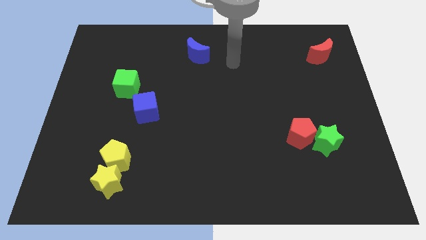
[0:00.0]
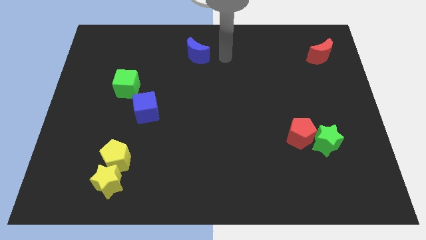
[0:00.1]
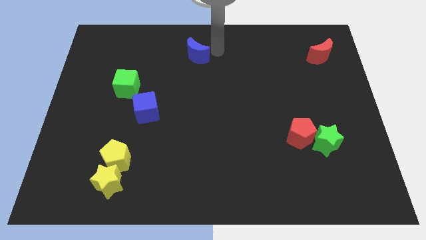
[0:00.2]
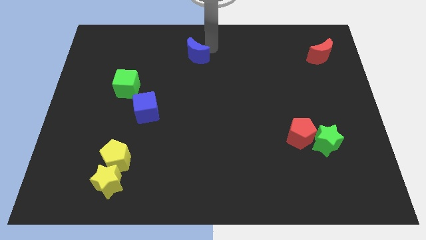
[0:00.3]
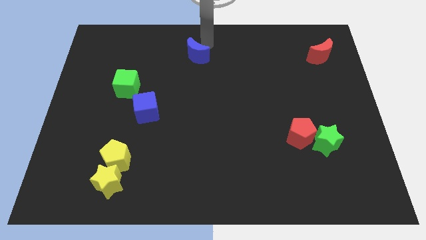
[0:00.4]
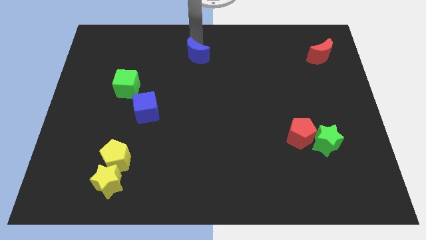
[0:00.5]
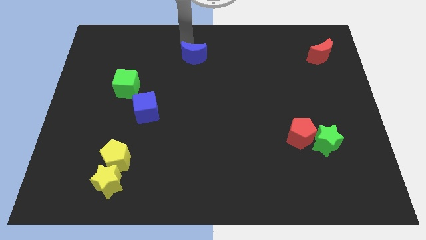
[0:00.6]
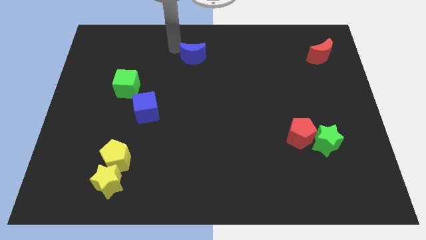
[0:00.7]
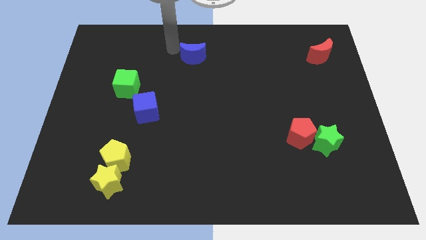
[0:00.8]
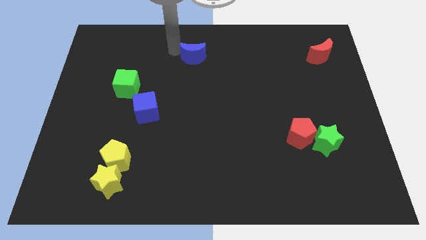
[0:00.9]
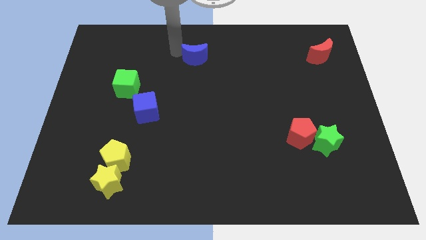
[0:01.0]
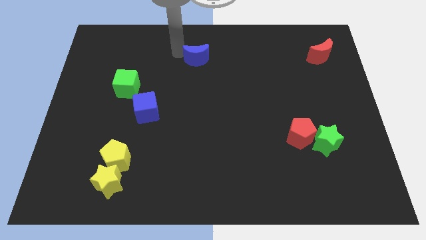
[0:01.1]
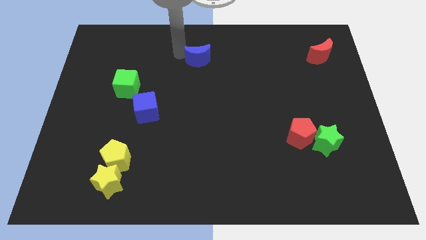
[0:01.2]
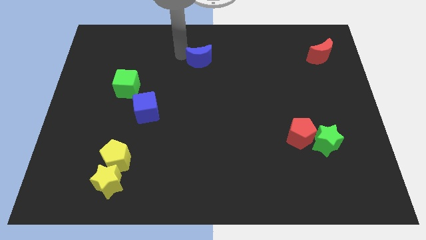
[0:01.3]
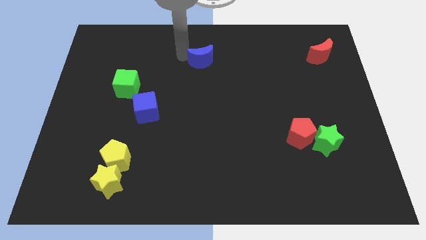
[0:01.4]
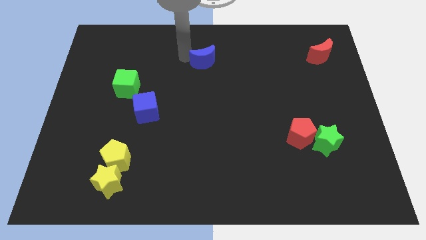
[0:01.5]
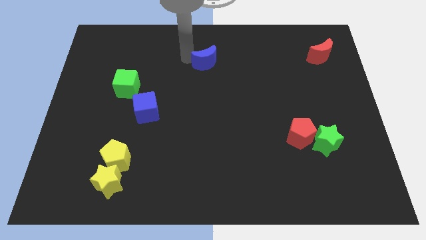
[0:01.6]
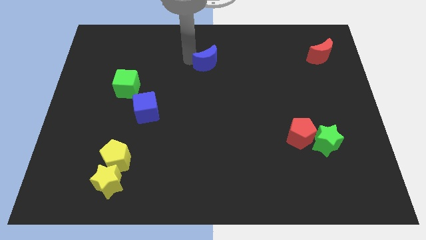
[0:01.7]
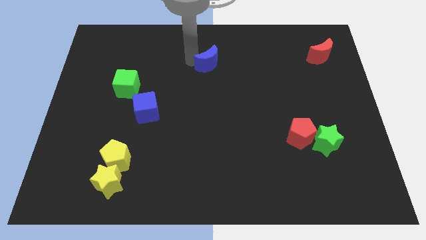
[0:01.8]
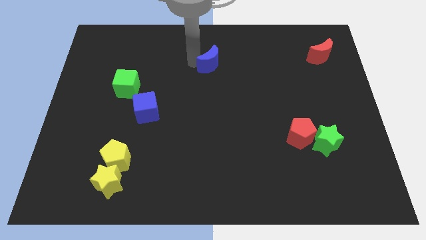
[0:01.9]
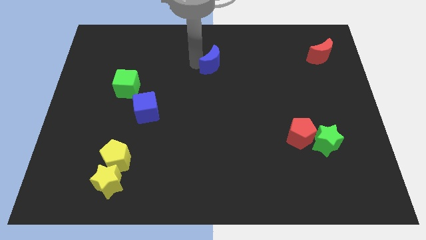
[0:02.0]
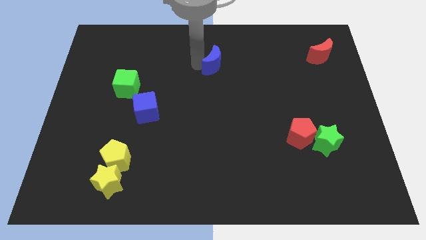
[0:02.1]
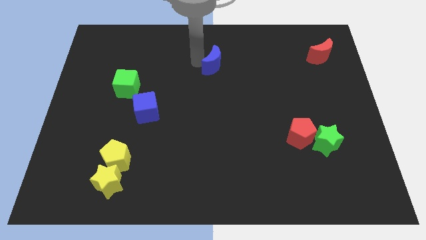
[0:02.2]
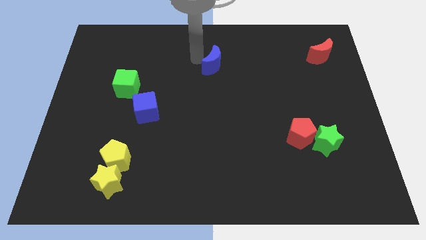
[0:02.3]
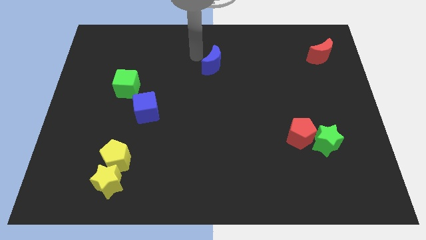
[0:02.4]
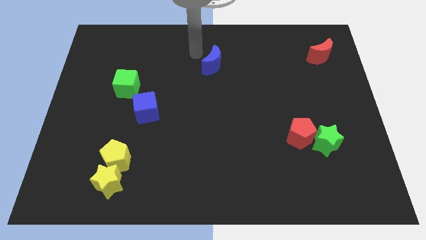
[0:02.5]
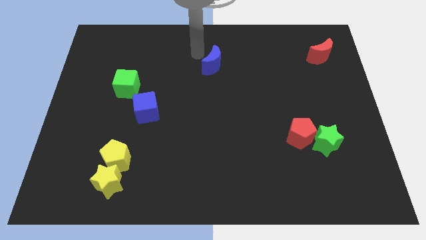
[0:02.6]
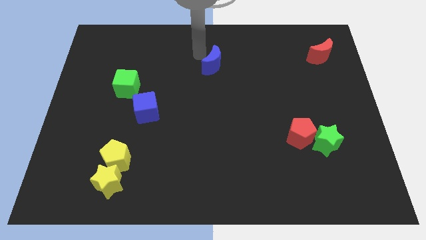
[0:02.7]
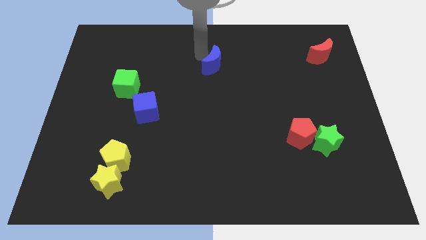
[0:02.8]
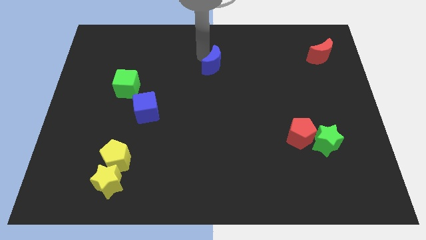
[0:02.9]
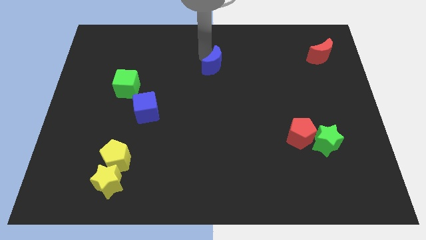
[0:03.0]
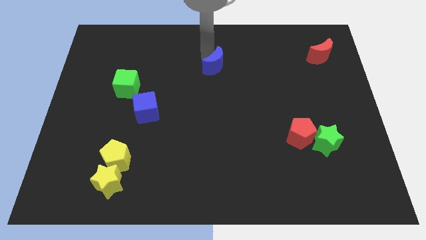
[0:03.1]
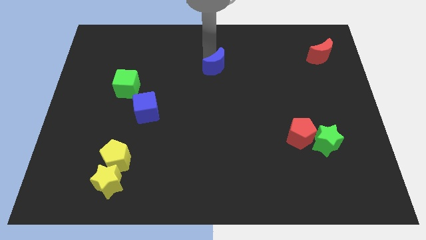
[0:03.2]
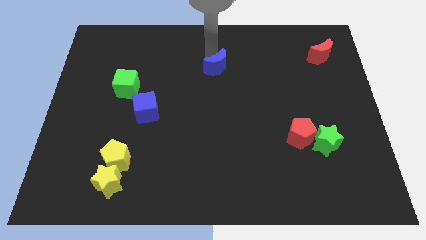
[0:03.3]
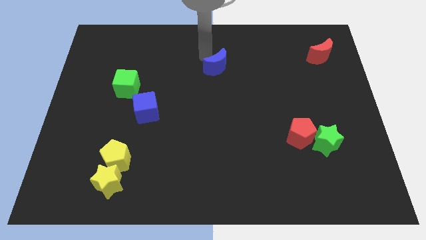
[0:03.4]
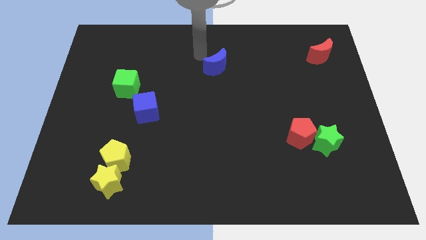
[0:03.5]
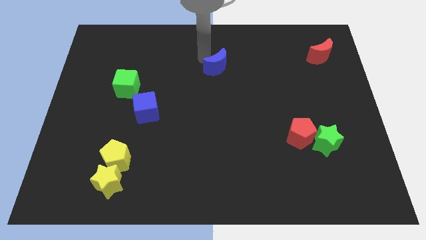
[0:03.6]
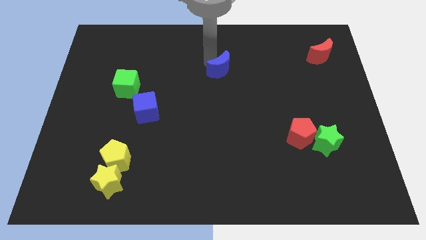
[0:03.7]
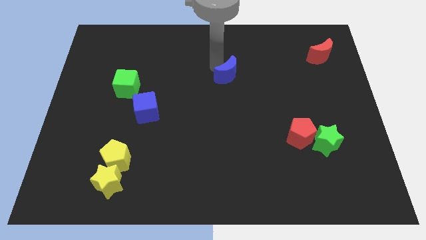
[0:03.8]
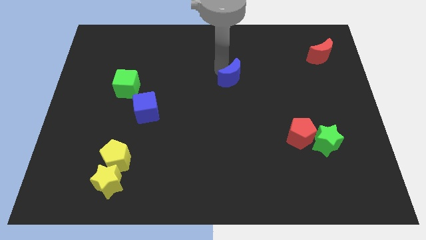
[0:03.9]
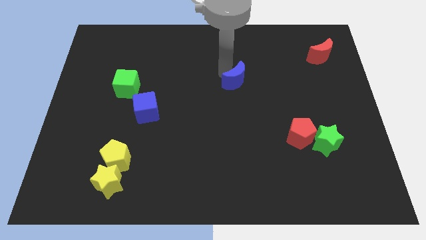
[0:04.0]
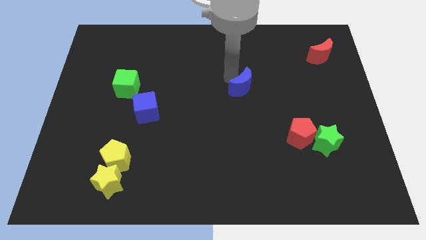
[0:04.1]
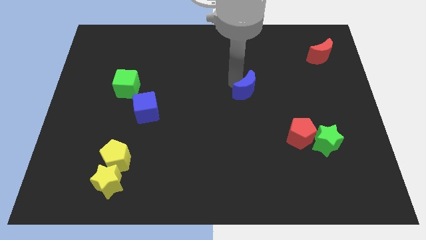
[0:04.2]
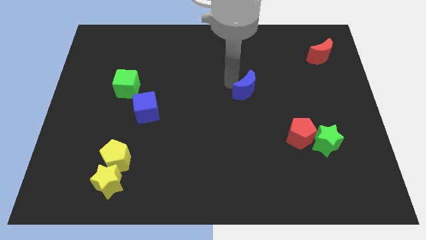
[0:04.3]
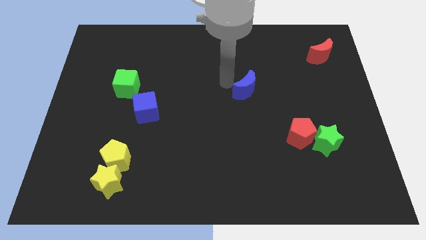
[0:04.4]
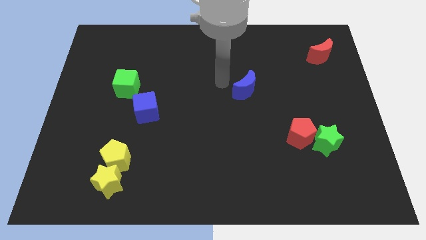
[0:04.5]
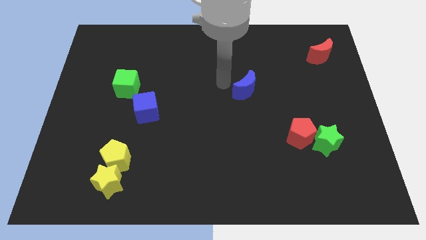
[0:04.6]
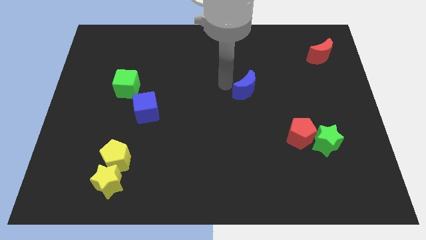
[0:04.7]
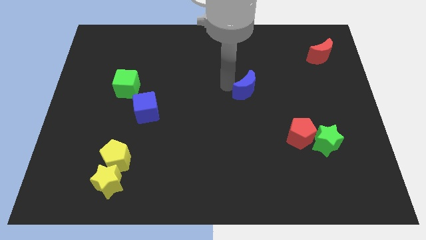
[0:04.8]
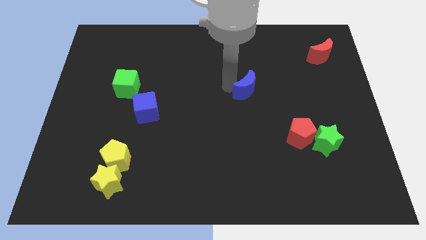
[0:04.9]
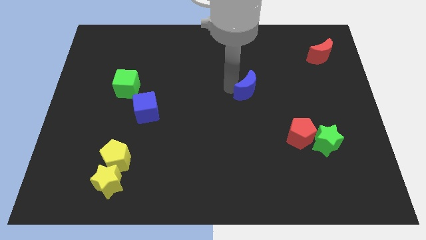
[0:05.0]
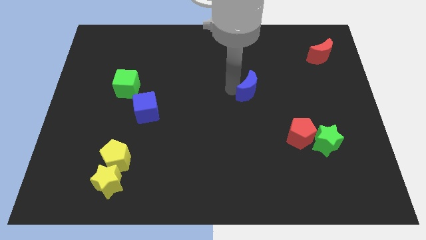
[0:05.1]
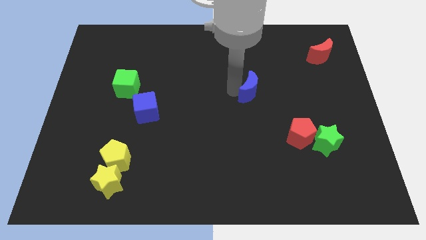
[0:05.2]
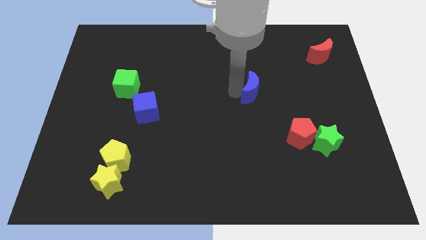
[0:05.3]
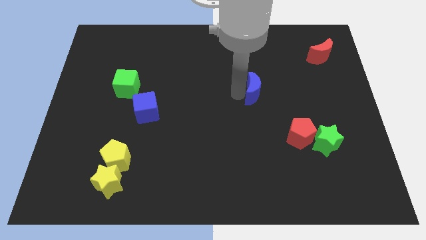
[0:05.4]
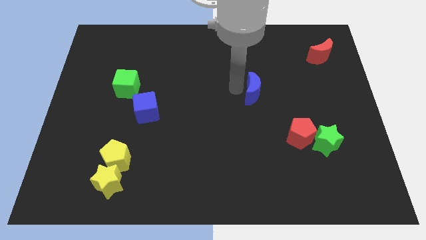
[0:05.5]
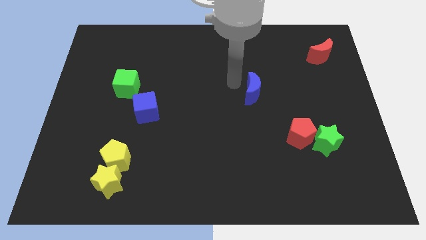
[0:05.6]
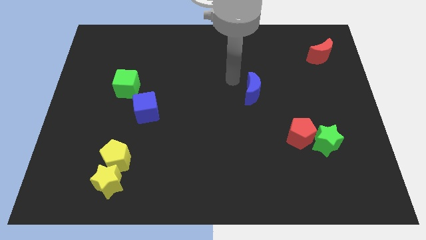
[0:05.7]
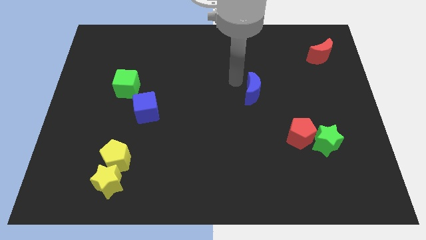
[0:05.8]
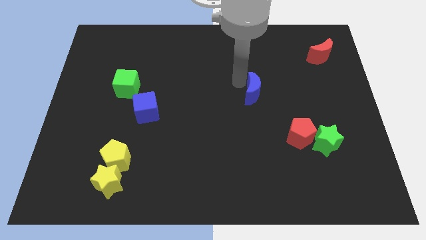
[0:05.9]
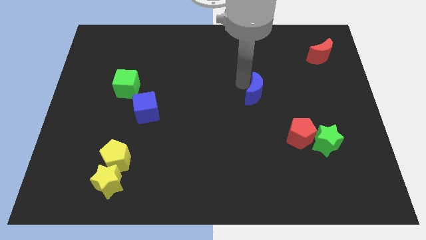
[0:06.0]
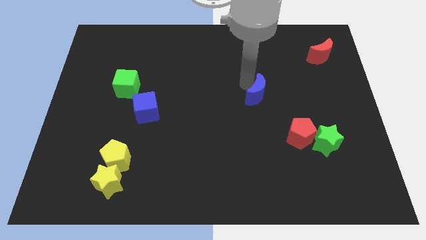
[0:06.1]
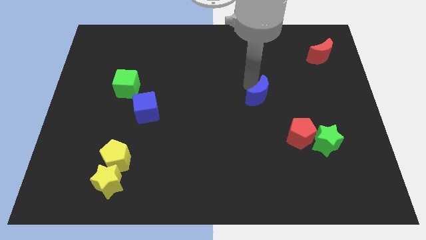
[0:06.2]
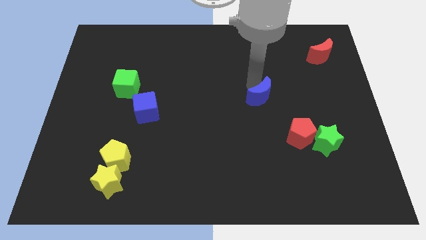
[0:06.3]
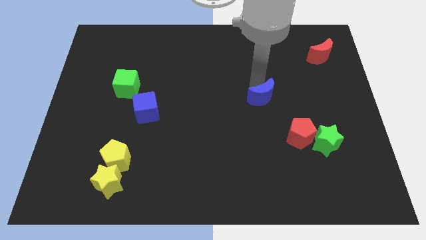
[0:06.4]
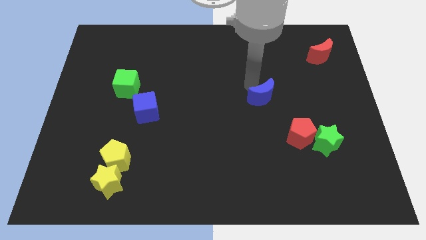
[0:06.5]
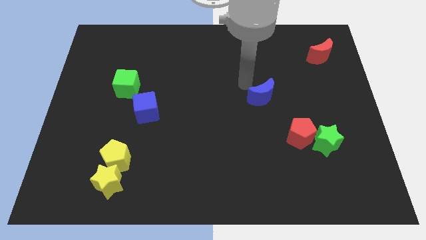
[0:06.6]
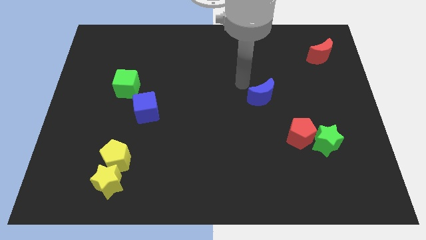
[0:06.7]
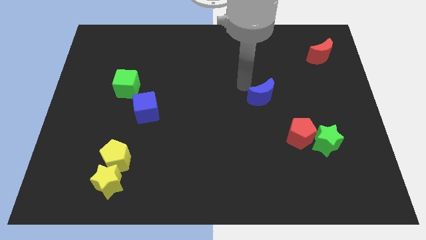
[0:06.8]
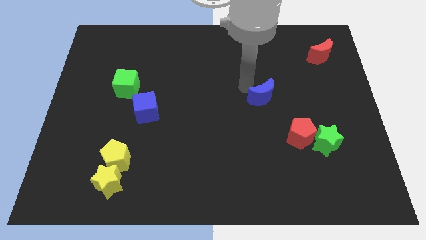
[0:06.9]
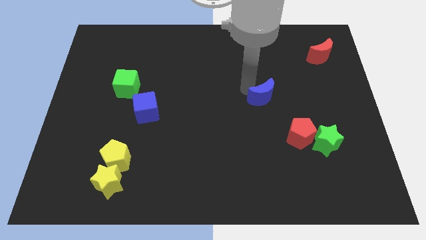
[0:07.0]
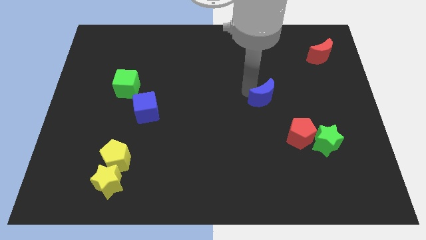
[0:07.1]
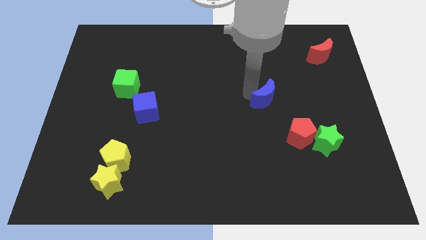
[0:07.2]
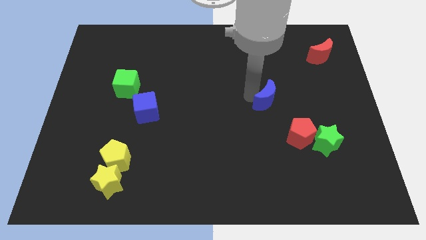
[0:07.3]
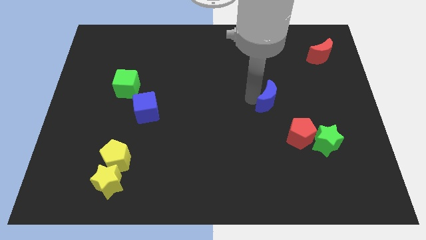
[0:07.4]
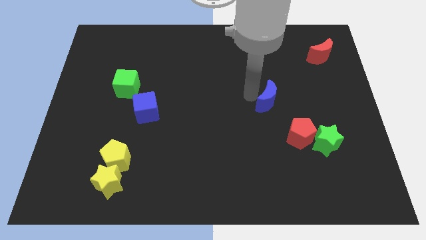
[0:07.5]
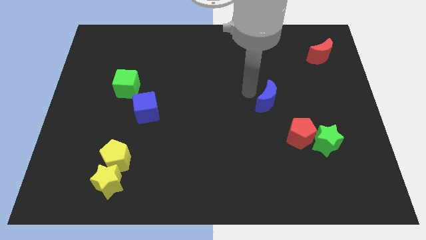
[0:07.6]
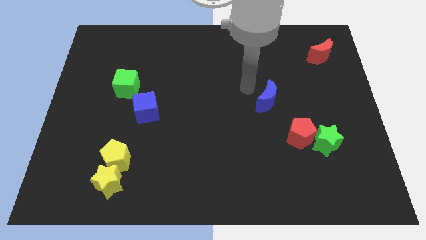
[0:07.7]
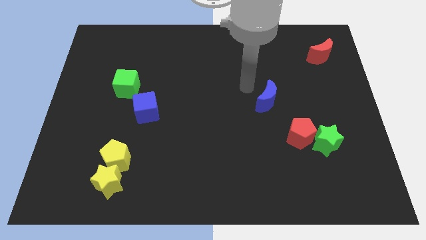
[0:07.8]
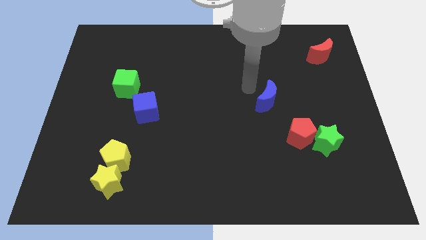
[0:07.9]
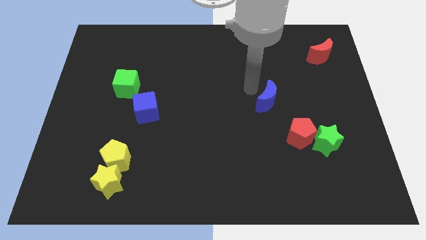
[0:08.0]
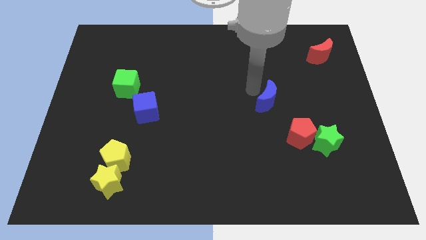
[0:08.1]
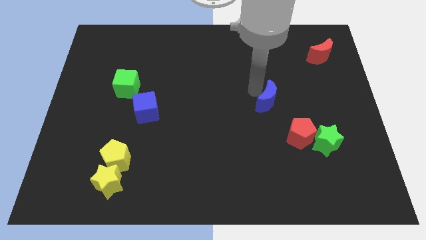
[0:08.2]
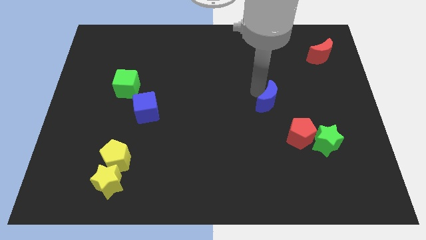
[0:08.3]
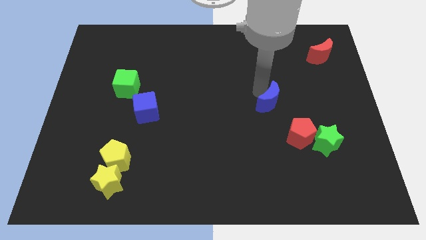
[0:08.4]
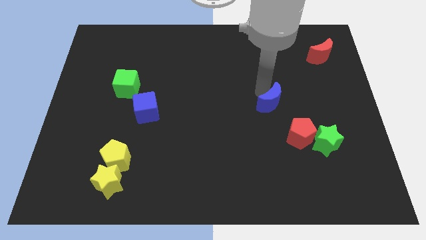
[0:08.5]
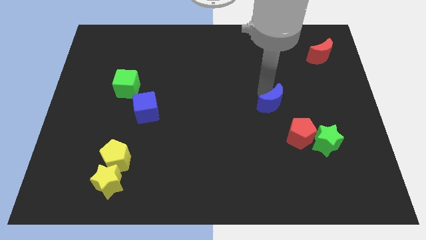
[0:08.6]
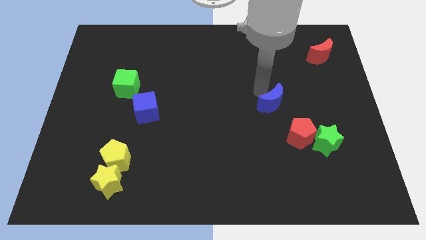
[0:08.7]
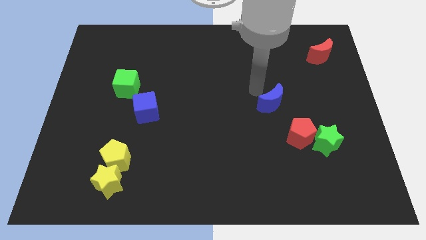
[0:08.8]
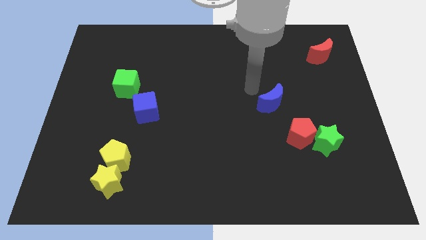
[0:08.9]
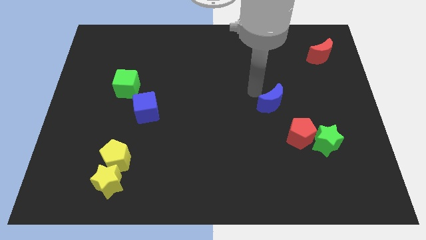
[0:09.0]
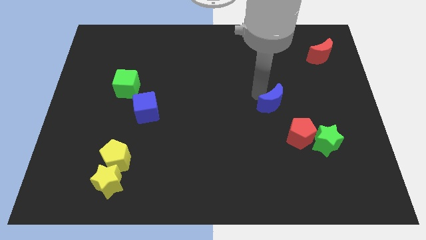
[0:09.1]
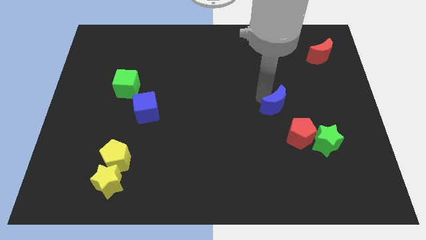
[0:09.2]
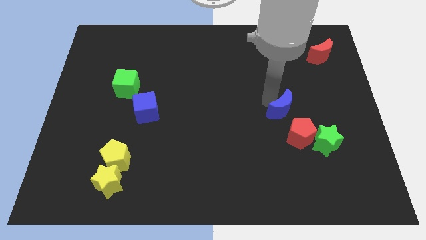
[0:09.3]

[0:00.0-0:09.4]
put the blue moon to the top left side of the green star
